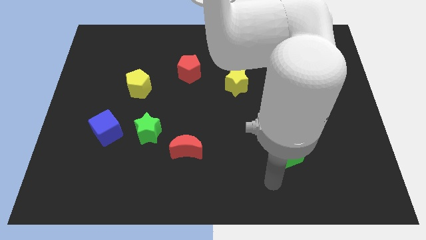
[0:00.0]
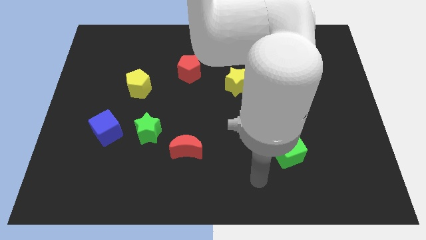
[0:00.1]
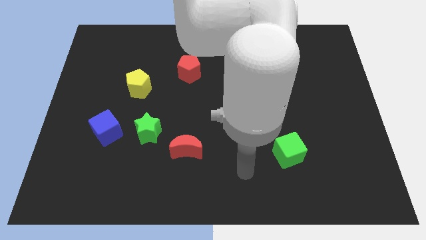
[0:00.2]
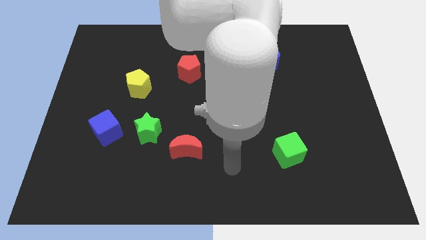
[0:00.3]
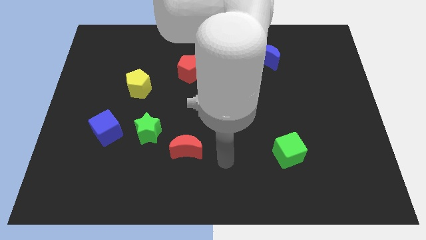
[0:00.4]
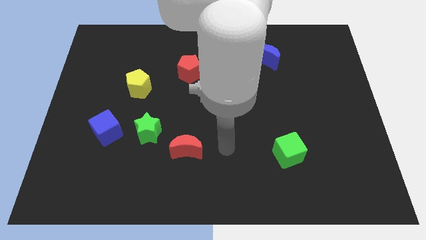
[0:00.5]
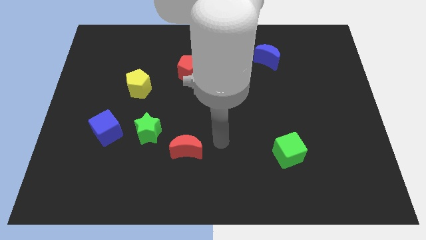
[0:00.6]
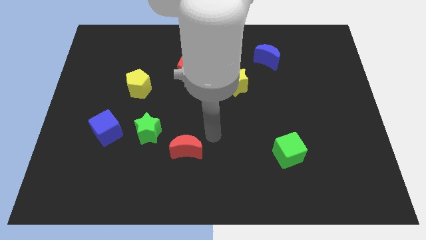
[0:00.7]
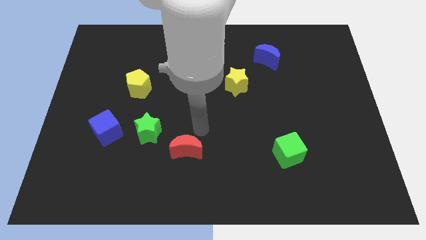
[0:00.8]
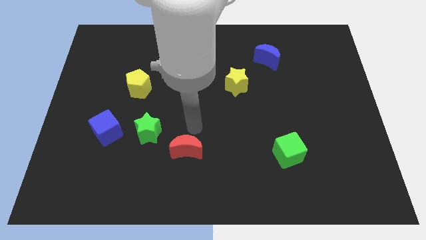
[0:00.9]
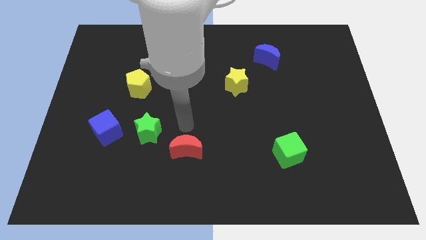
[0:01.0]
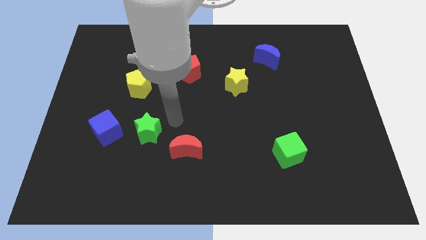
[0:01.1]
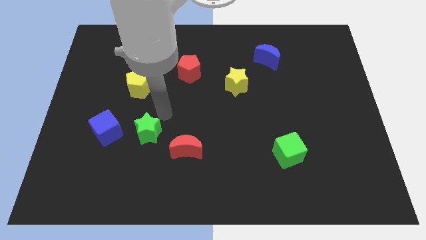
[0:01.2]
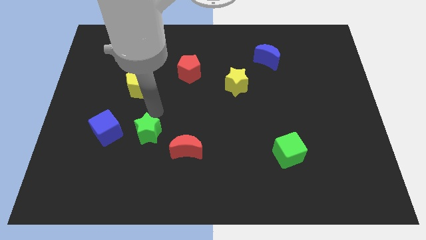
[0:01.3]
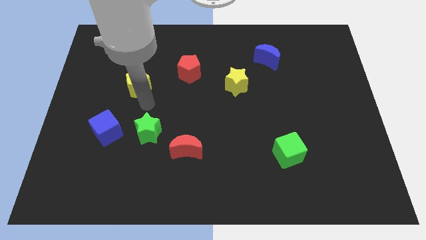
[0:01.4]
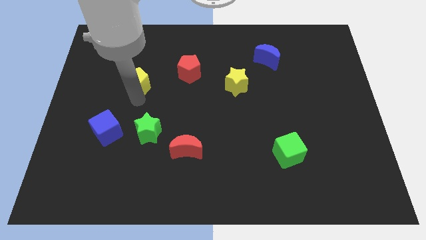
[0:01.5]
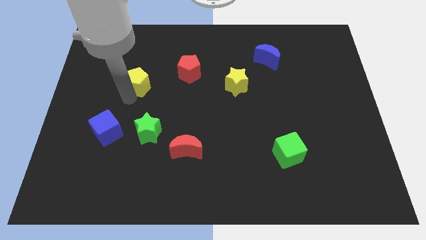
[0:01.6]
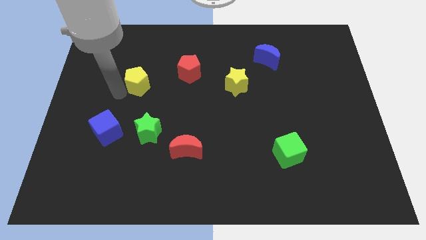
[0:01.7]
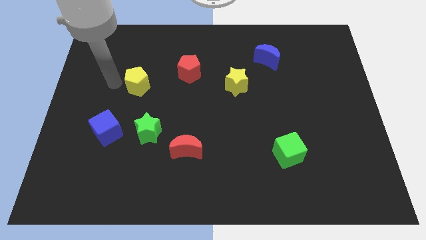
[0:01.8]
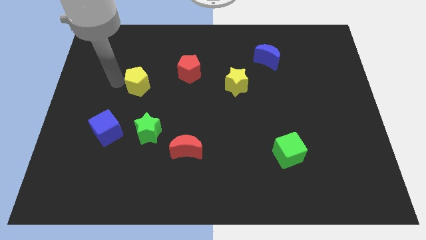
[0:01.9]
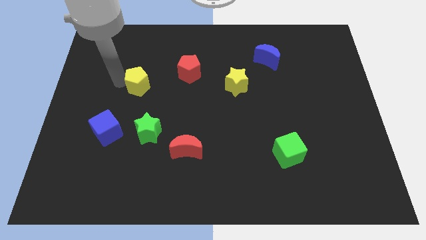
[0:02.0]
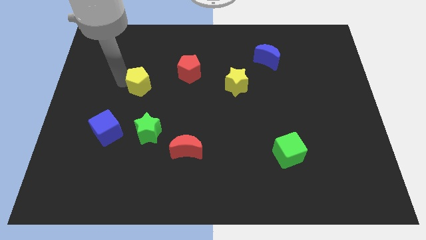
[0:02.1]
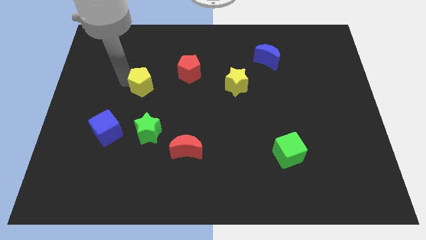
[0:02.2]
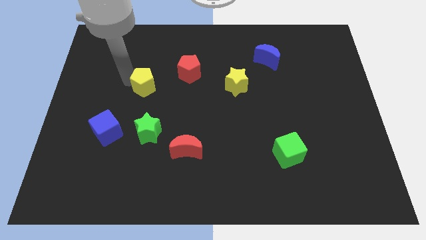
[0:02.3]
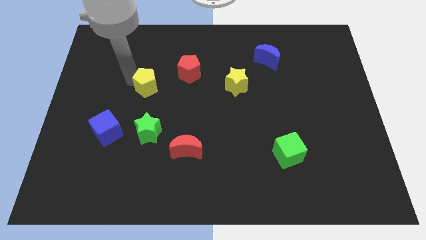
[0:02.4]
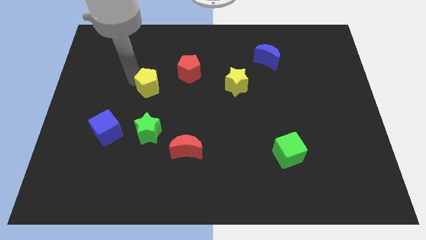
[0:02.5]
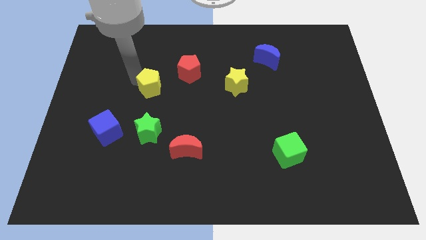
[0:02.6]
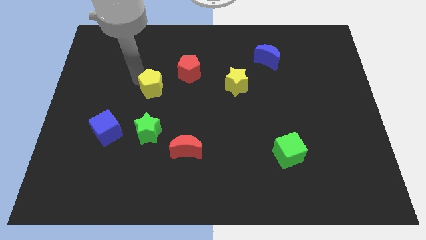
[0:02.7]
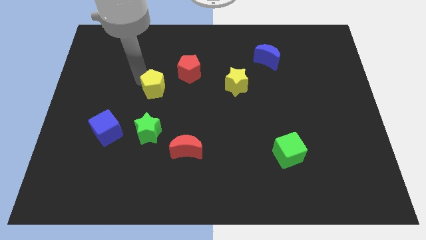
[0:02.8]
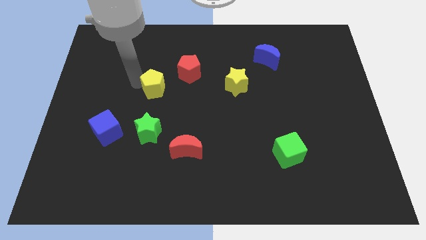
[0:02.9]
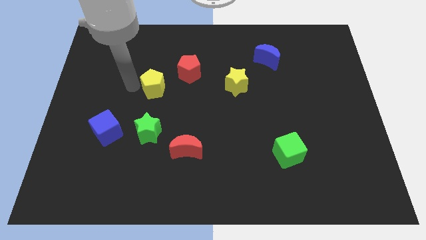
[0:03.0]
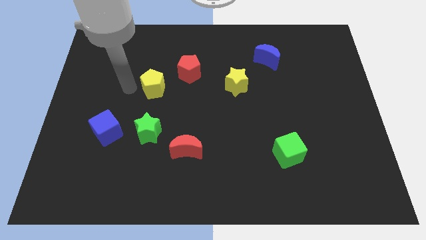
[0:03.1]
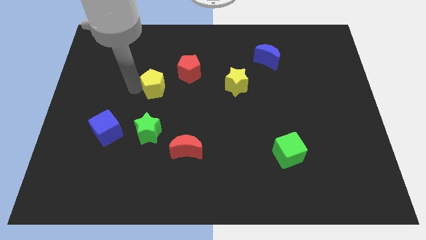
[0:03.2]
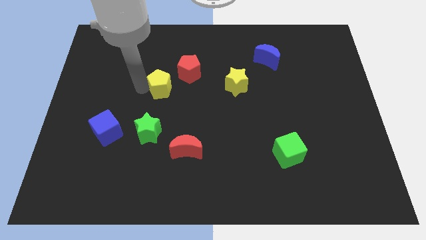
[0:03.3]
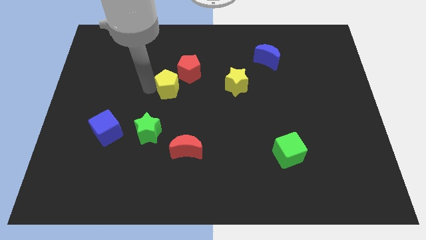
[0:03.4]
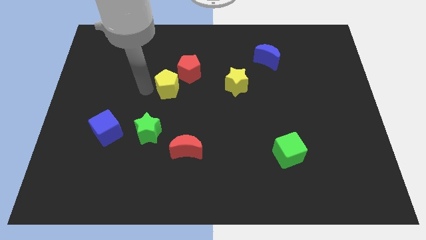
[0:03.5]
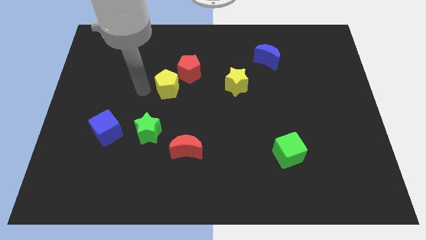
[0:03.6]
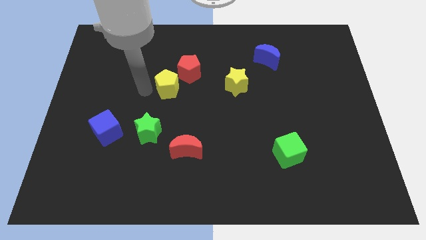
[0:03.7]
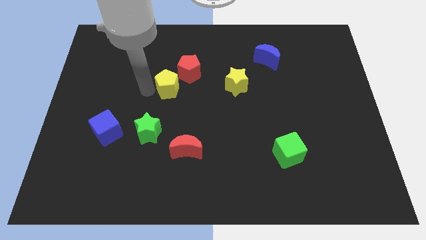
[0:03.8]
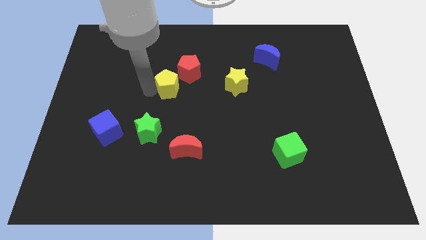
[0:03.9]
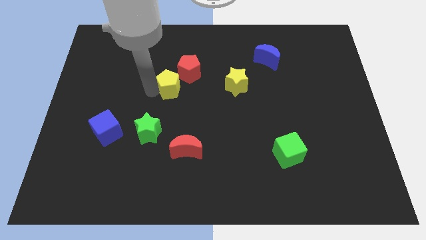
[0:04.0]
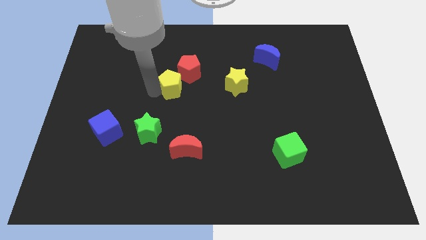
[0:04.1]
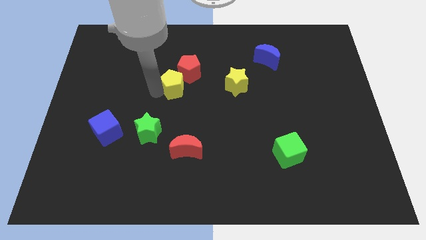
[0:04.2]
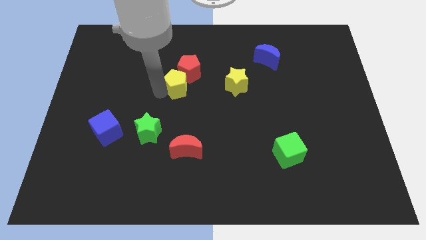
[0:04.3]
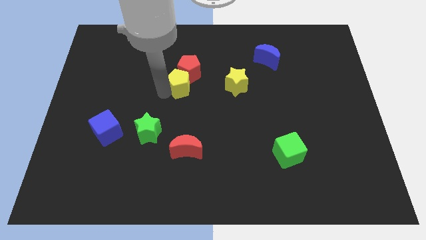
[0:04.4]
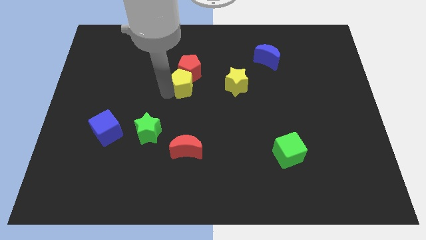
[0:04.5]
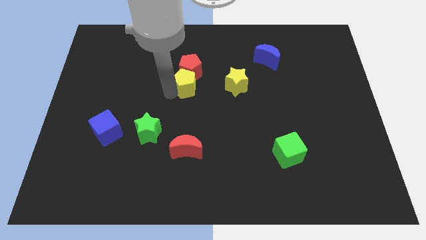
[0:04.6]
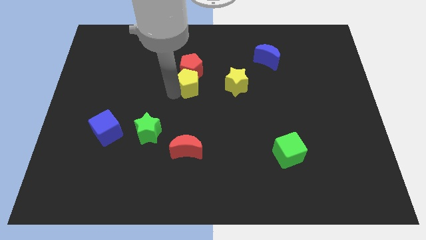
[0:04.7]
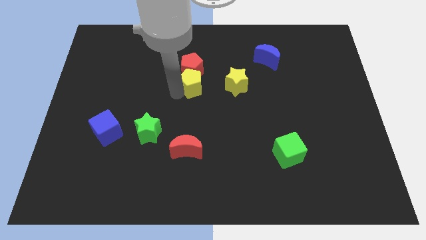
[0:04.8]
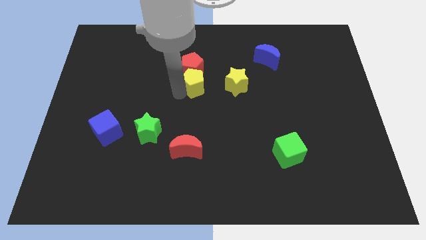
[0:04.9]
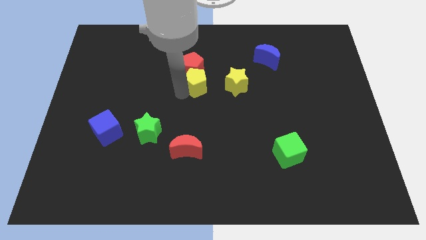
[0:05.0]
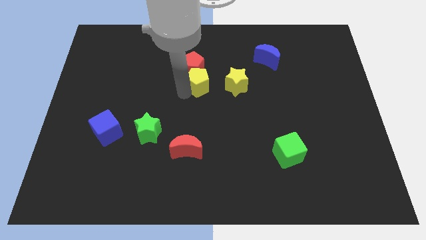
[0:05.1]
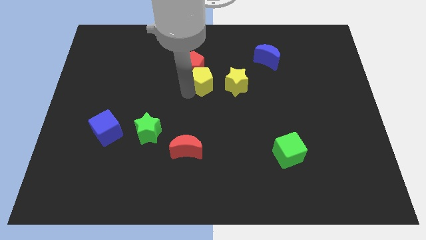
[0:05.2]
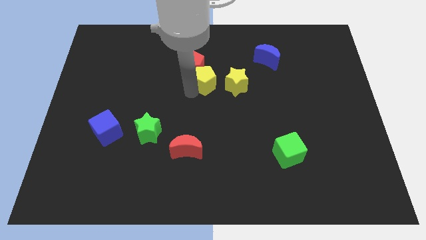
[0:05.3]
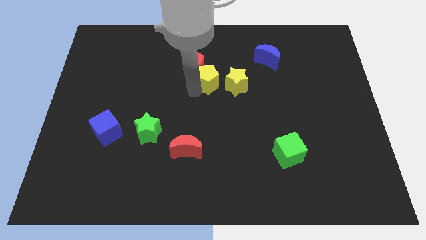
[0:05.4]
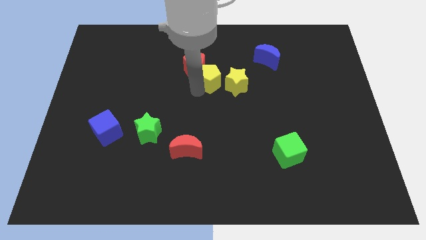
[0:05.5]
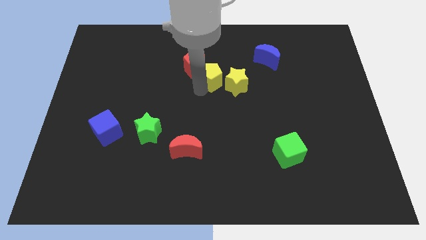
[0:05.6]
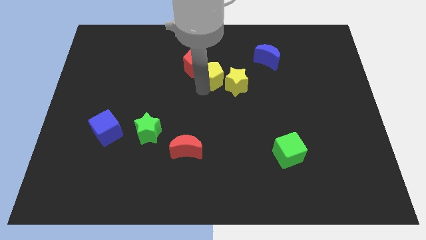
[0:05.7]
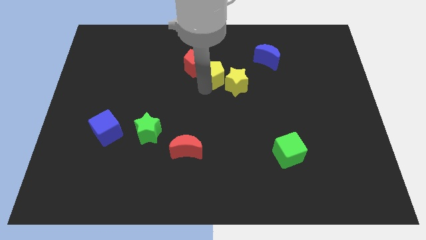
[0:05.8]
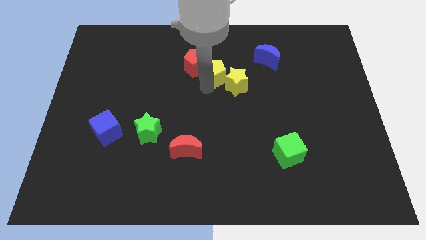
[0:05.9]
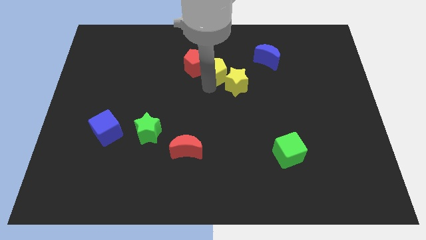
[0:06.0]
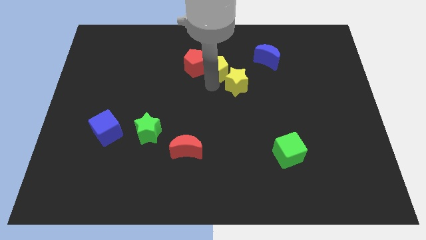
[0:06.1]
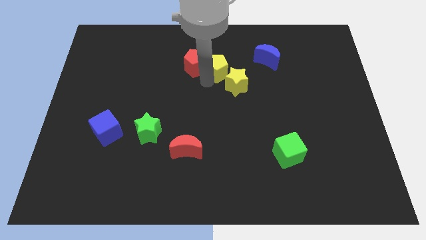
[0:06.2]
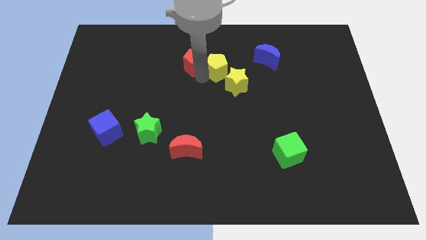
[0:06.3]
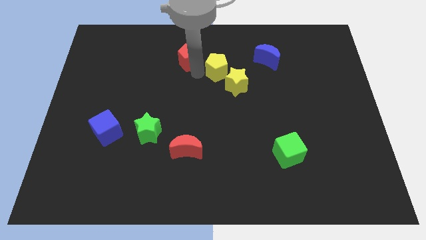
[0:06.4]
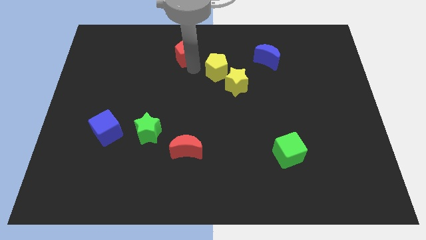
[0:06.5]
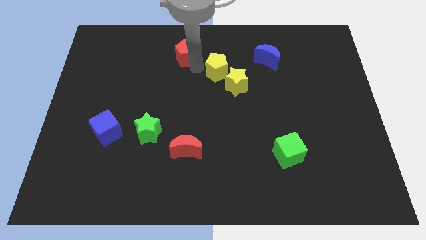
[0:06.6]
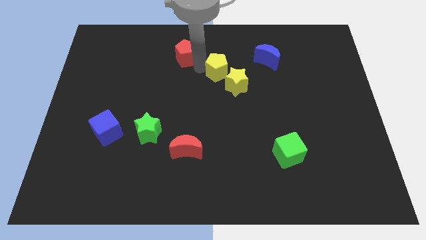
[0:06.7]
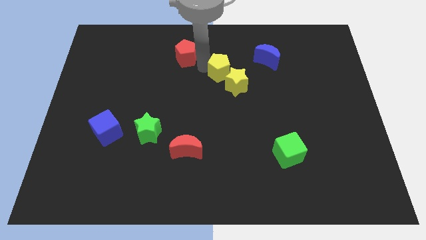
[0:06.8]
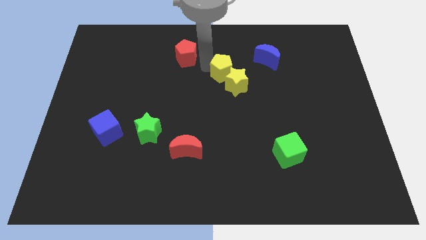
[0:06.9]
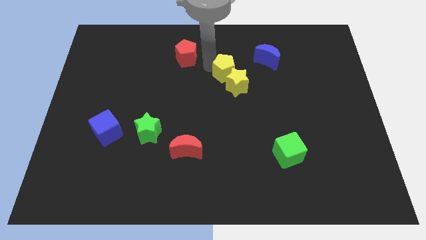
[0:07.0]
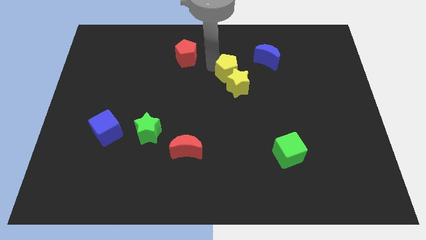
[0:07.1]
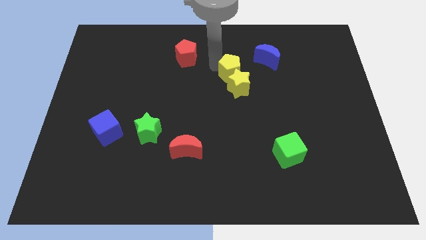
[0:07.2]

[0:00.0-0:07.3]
slide the yellow pentagon diagonally down and to the left of the blue moon

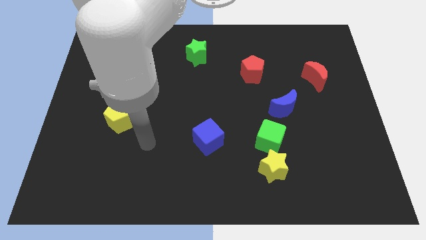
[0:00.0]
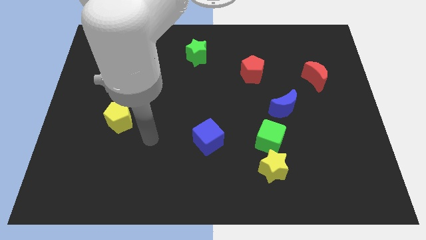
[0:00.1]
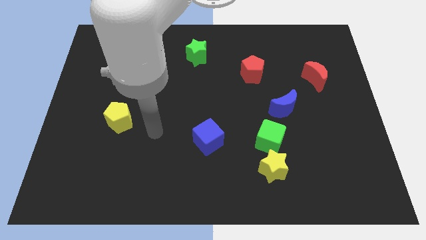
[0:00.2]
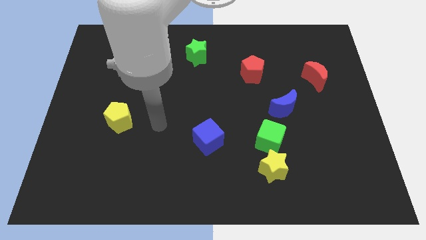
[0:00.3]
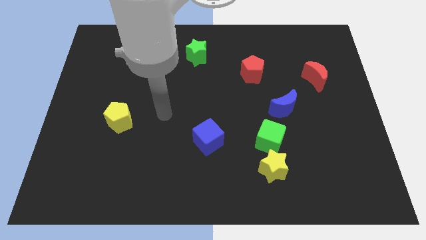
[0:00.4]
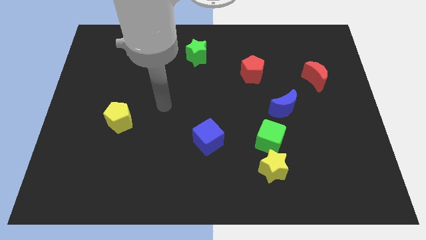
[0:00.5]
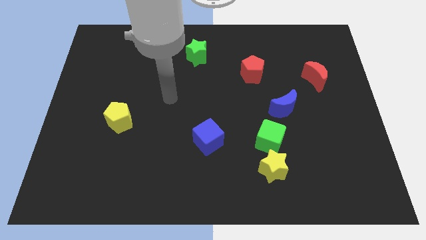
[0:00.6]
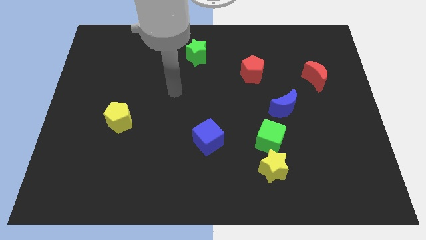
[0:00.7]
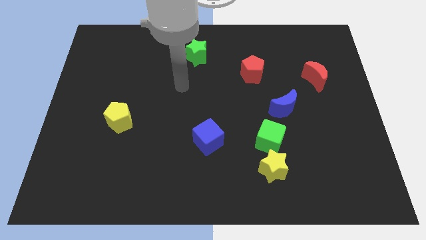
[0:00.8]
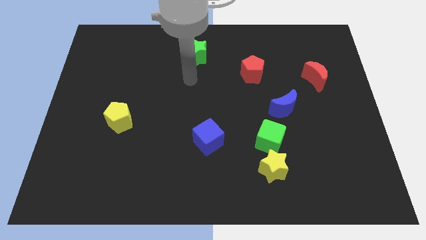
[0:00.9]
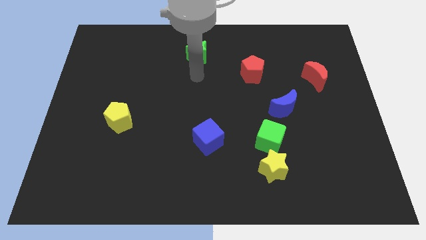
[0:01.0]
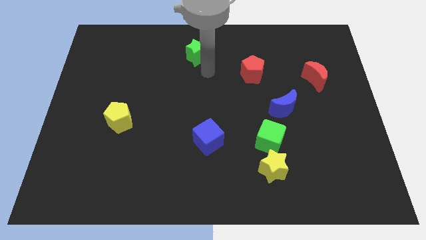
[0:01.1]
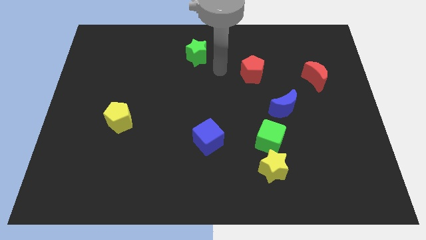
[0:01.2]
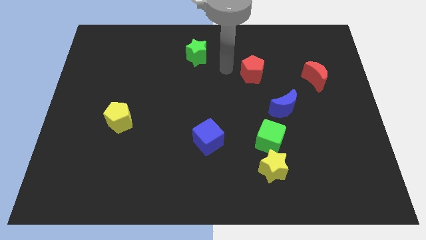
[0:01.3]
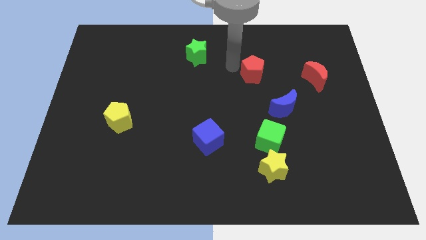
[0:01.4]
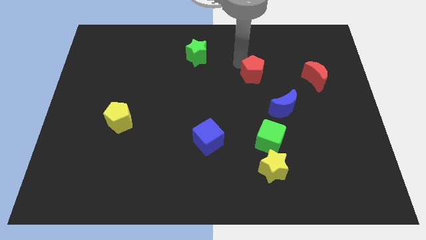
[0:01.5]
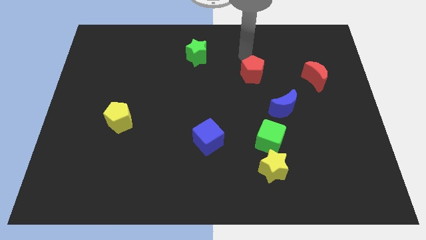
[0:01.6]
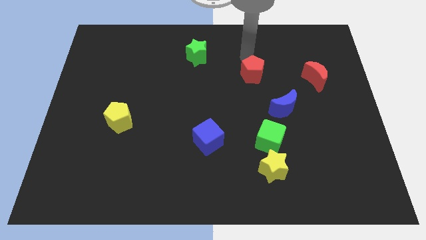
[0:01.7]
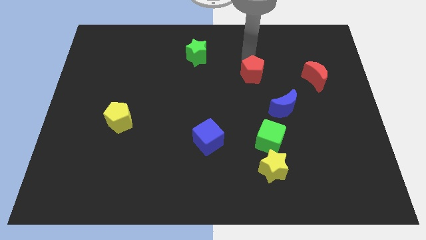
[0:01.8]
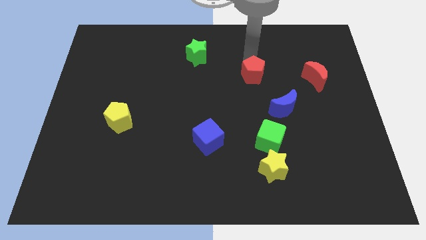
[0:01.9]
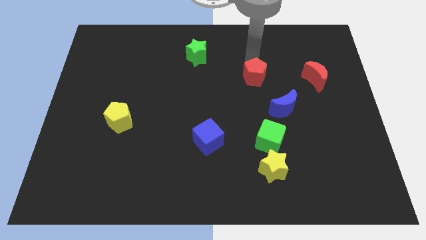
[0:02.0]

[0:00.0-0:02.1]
slide the red pentagon to the top left of the blue moon
